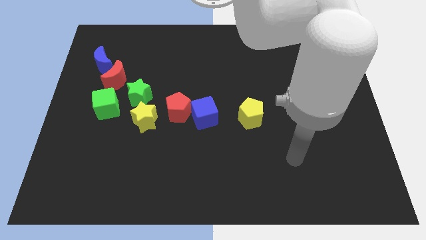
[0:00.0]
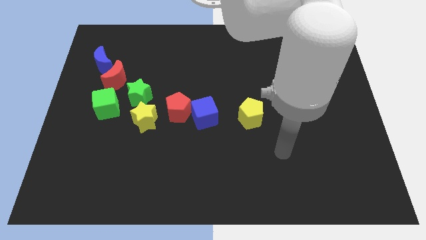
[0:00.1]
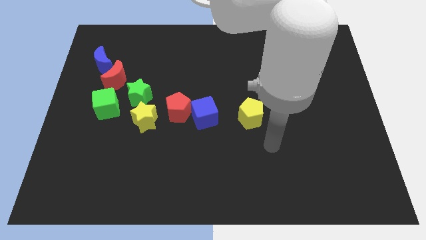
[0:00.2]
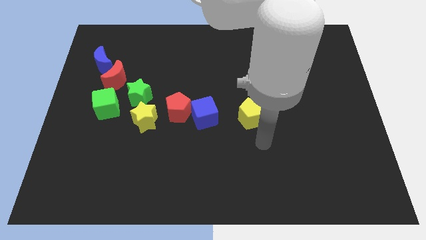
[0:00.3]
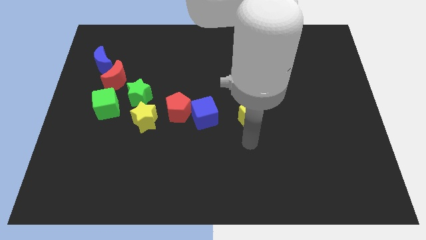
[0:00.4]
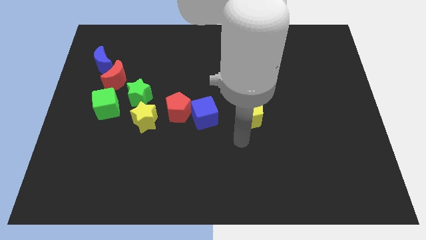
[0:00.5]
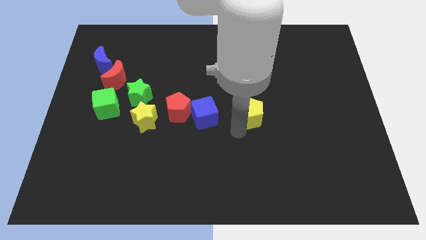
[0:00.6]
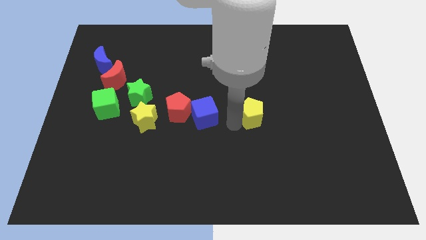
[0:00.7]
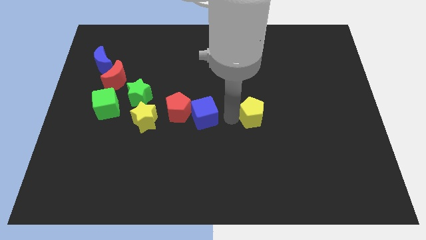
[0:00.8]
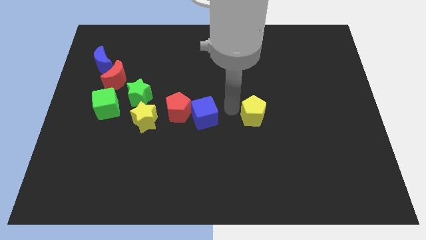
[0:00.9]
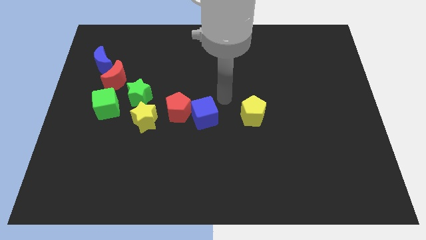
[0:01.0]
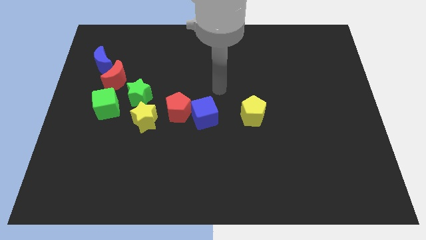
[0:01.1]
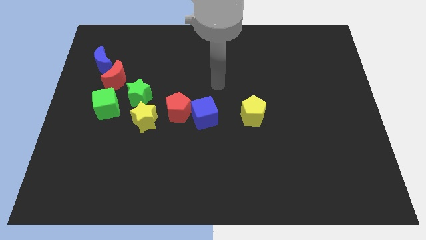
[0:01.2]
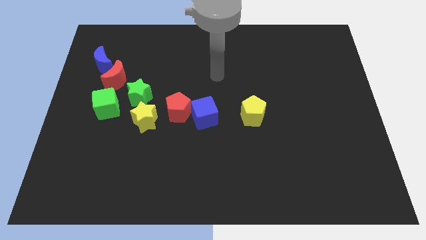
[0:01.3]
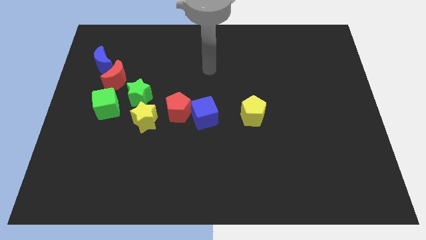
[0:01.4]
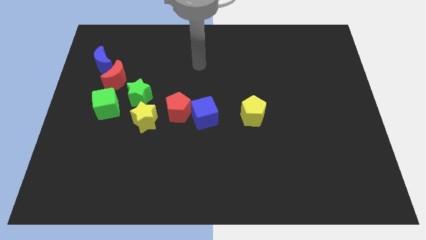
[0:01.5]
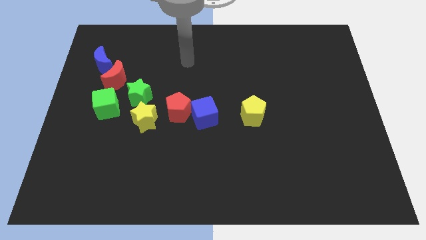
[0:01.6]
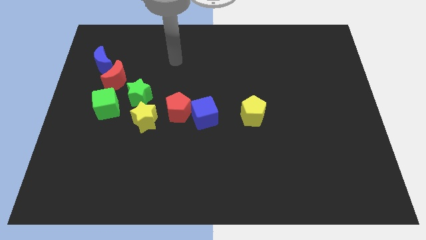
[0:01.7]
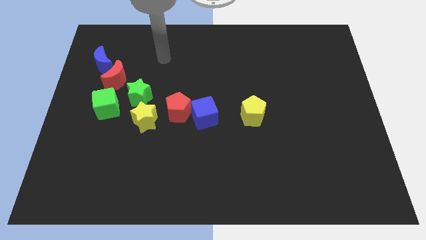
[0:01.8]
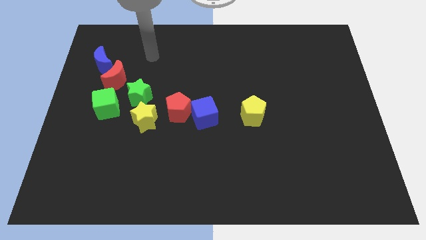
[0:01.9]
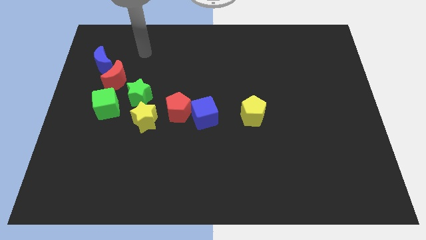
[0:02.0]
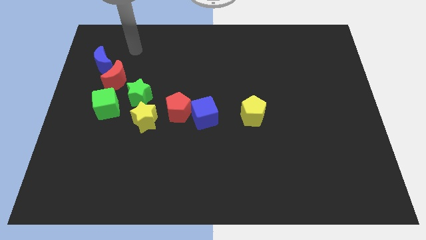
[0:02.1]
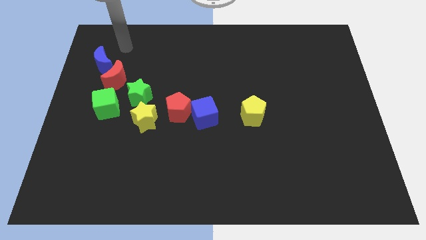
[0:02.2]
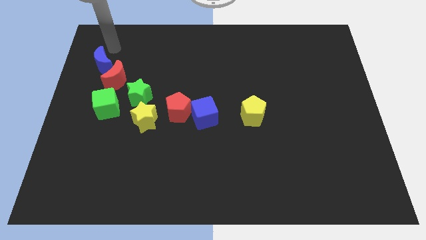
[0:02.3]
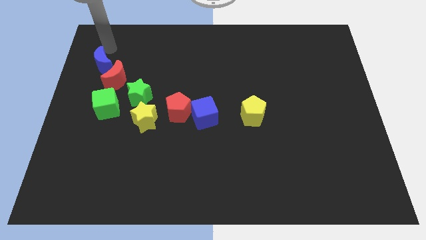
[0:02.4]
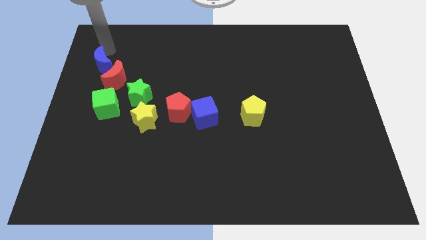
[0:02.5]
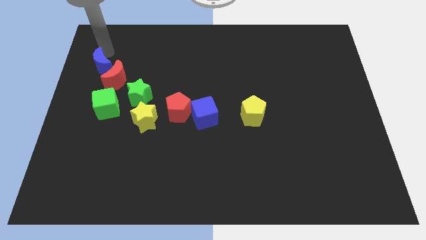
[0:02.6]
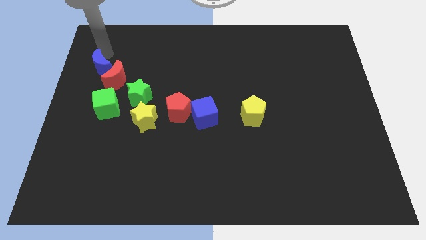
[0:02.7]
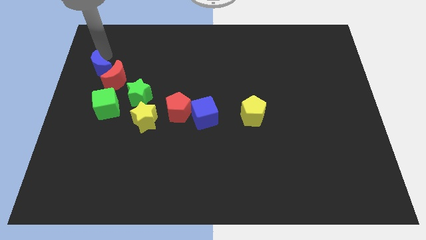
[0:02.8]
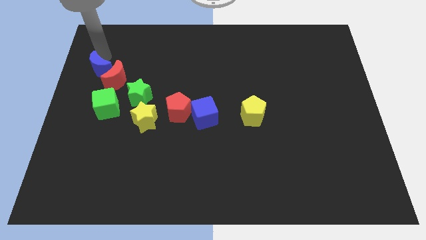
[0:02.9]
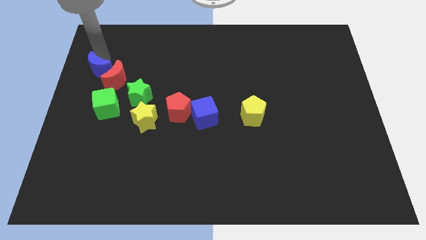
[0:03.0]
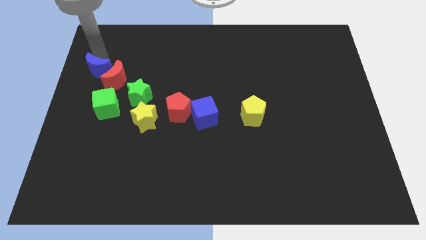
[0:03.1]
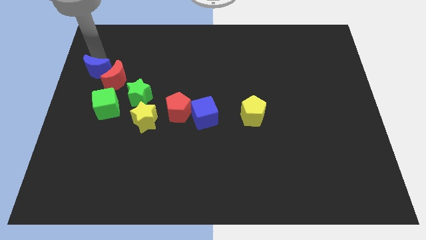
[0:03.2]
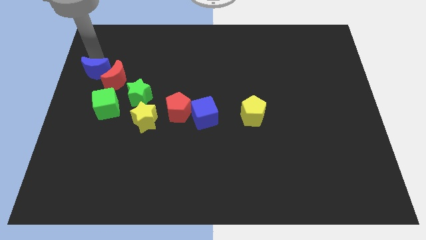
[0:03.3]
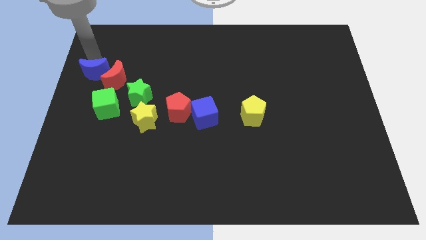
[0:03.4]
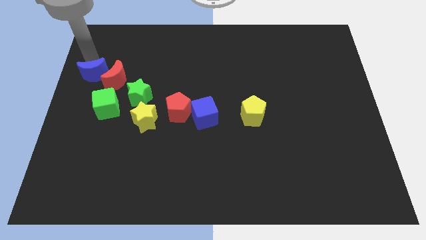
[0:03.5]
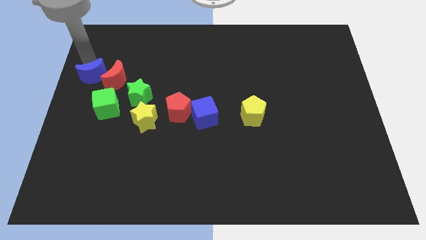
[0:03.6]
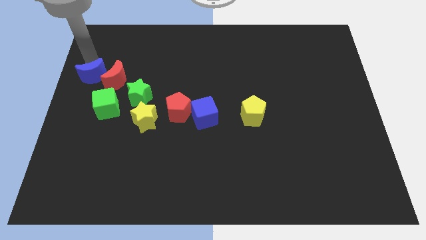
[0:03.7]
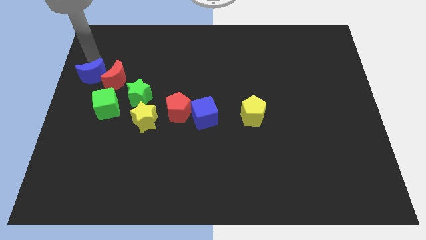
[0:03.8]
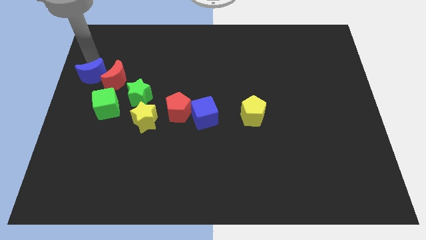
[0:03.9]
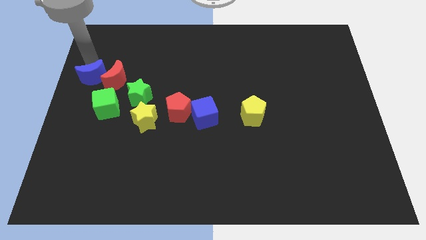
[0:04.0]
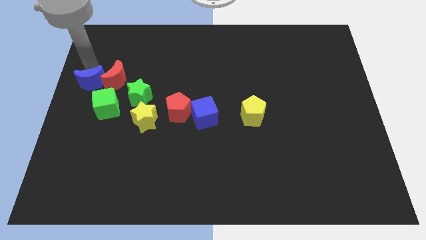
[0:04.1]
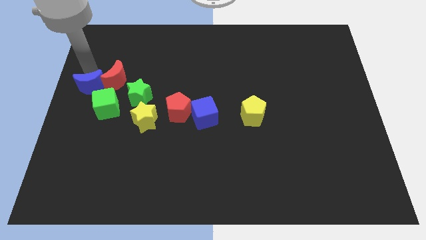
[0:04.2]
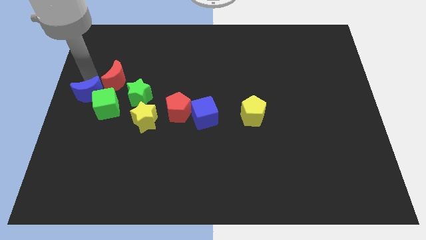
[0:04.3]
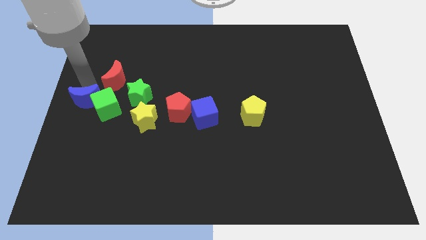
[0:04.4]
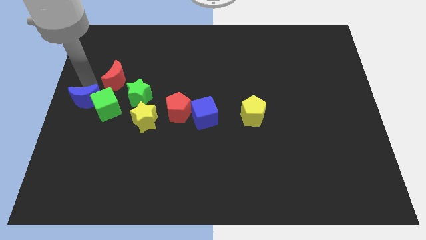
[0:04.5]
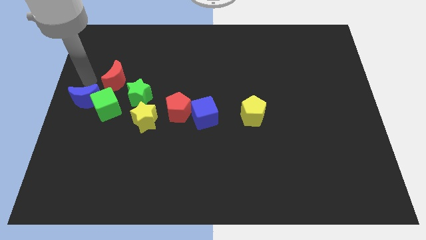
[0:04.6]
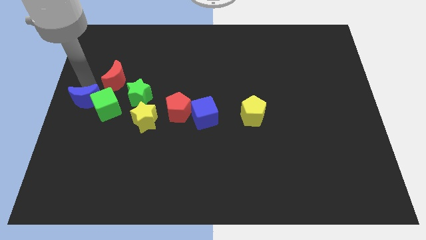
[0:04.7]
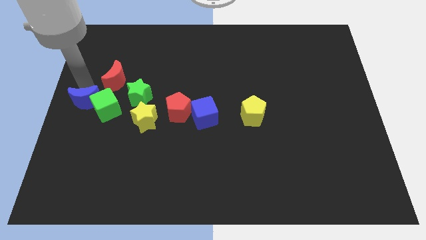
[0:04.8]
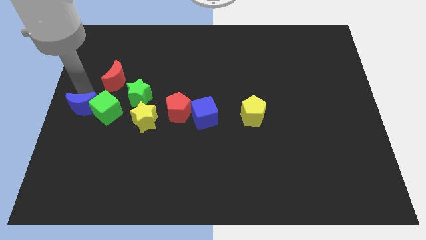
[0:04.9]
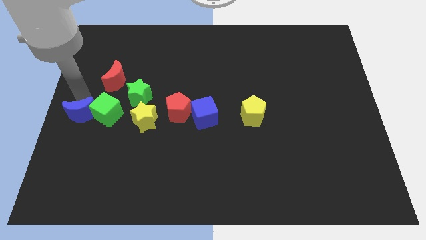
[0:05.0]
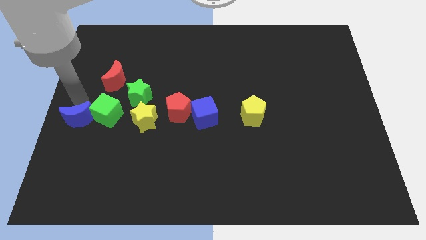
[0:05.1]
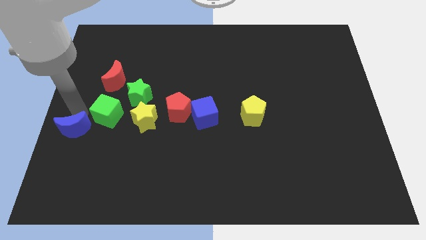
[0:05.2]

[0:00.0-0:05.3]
move the blue moon down

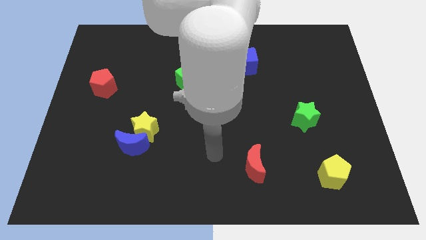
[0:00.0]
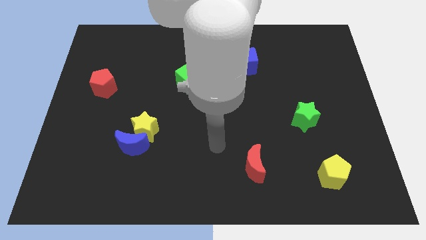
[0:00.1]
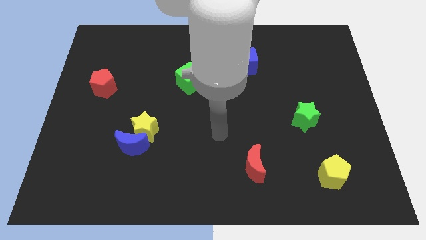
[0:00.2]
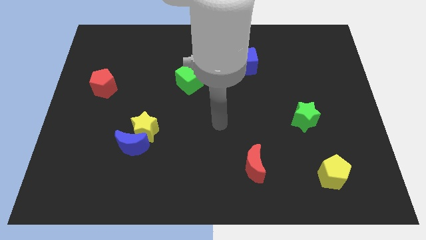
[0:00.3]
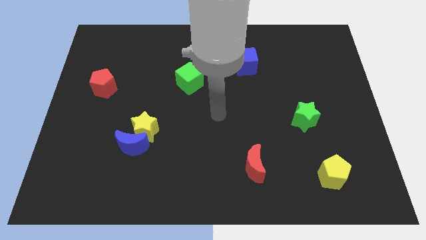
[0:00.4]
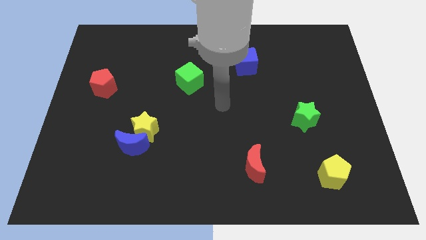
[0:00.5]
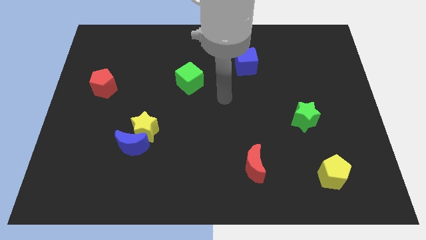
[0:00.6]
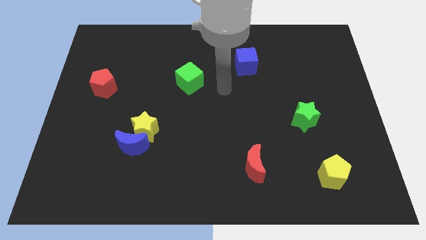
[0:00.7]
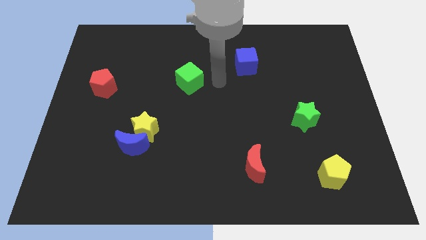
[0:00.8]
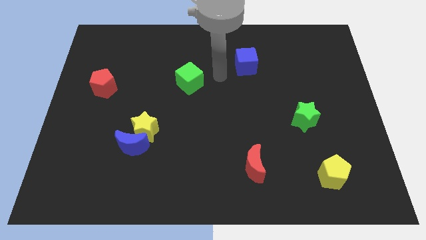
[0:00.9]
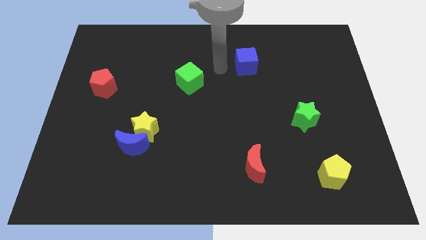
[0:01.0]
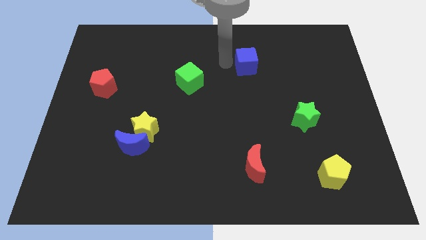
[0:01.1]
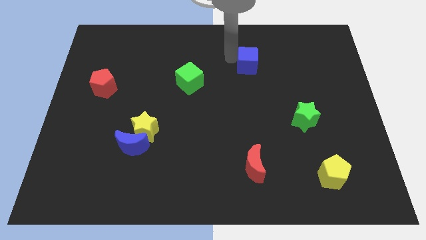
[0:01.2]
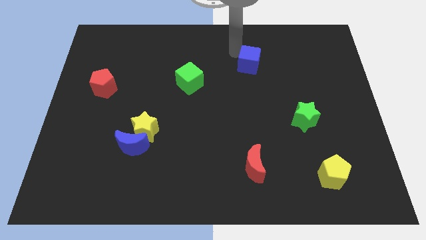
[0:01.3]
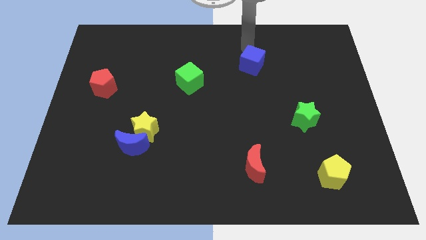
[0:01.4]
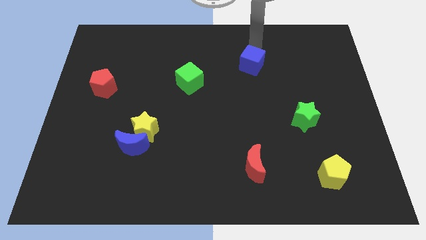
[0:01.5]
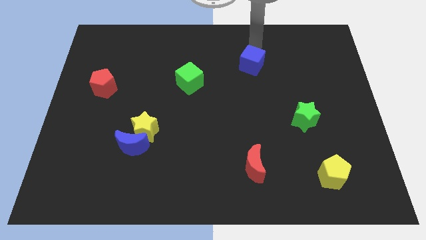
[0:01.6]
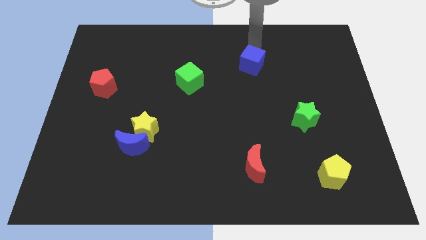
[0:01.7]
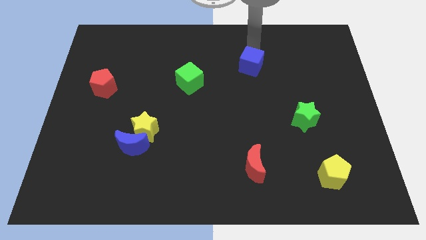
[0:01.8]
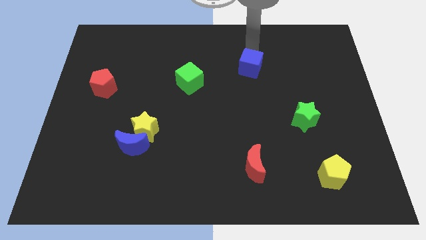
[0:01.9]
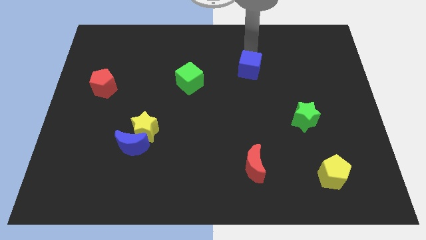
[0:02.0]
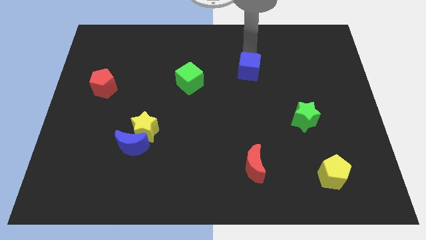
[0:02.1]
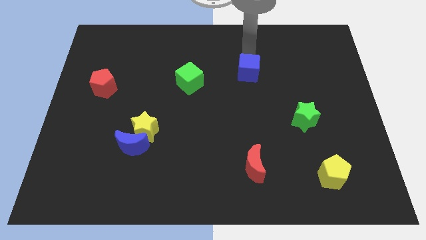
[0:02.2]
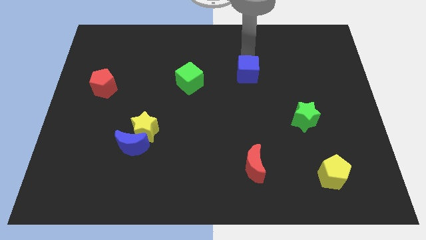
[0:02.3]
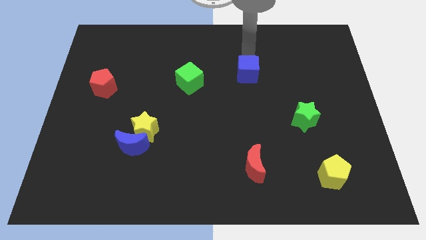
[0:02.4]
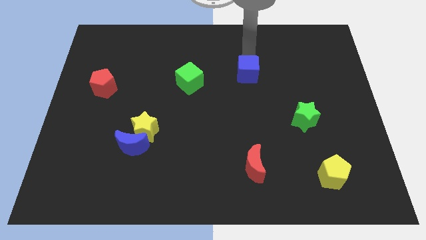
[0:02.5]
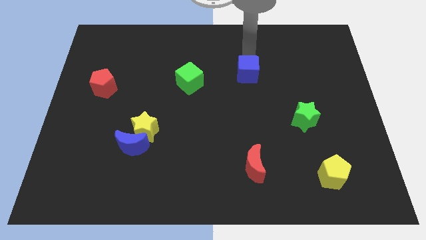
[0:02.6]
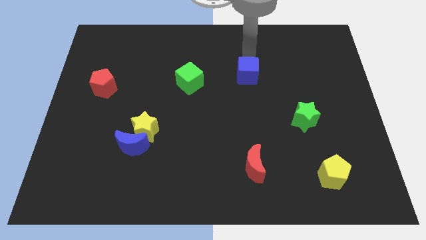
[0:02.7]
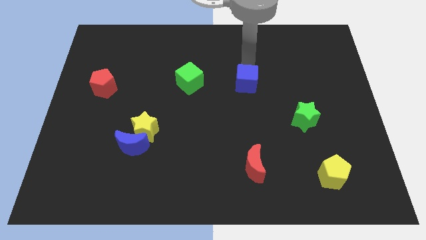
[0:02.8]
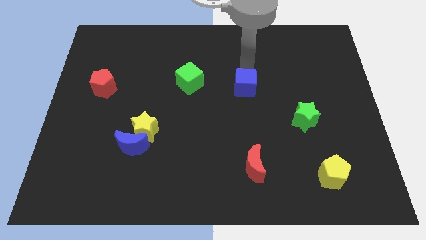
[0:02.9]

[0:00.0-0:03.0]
move the blue cube a bit down
